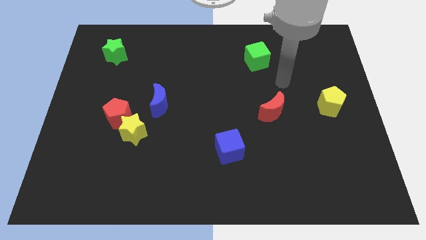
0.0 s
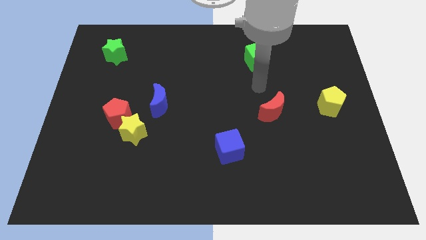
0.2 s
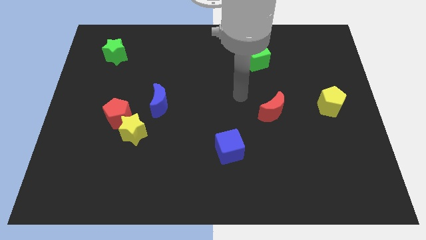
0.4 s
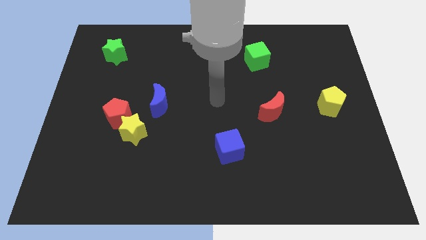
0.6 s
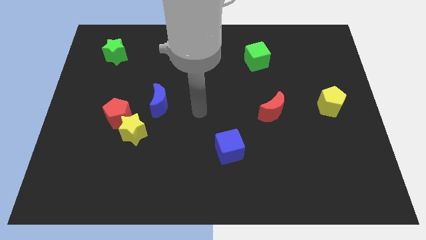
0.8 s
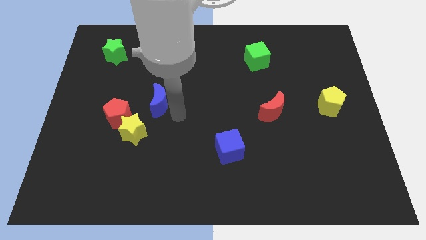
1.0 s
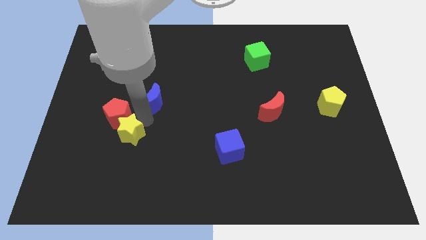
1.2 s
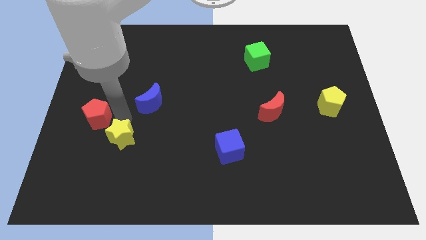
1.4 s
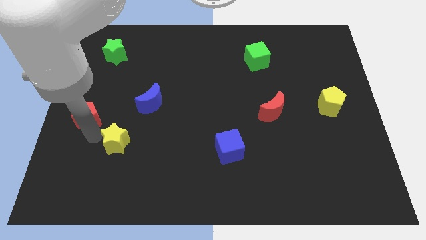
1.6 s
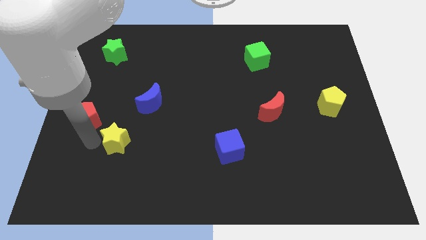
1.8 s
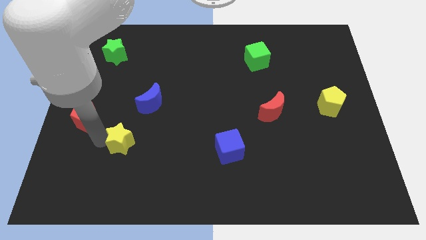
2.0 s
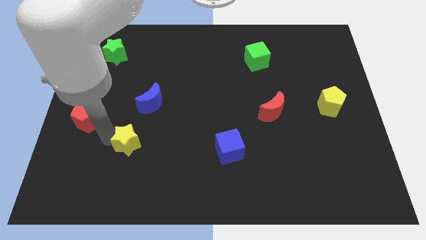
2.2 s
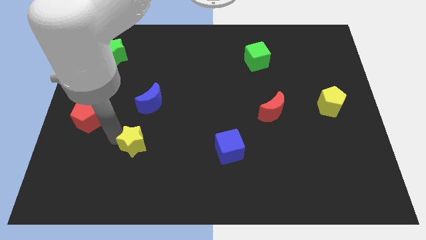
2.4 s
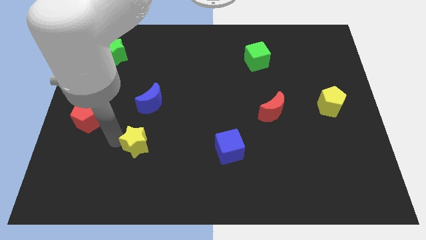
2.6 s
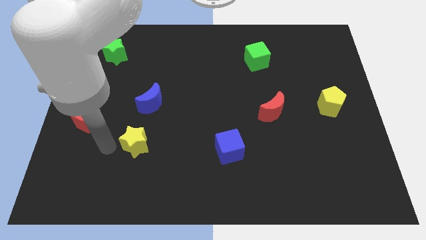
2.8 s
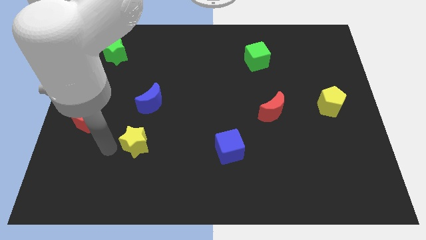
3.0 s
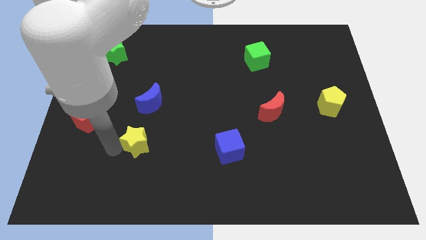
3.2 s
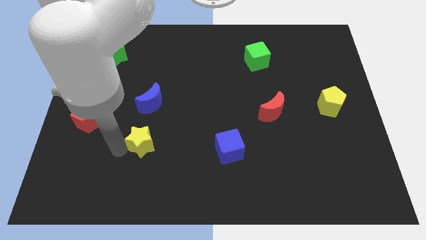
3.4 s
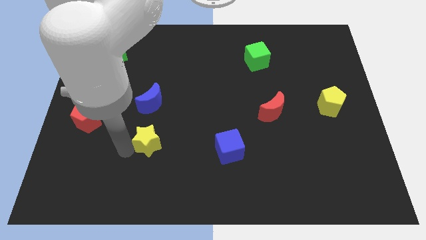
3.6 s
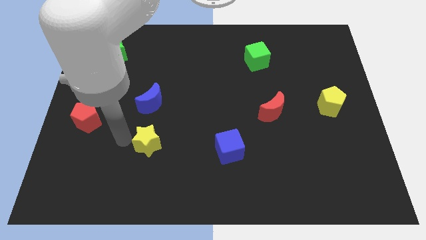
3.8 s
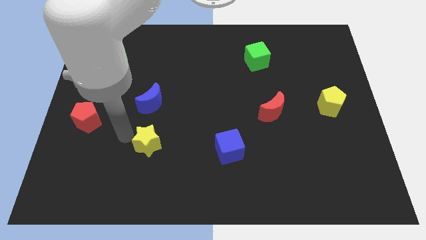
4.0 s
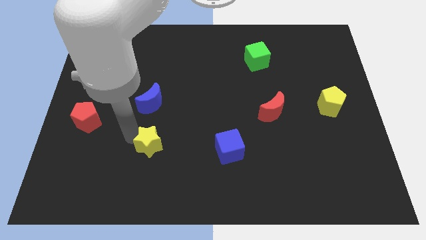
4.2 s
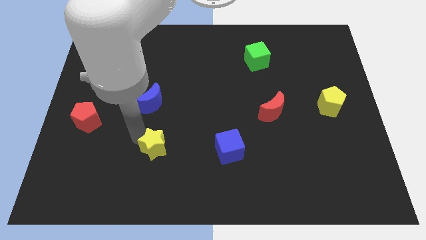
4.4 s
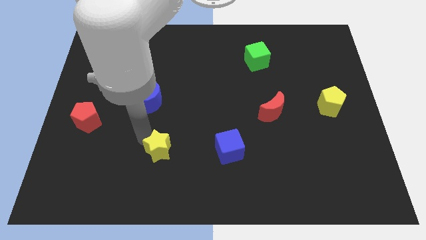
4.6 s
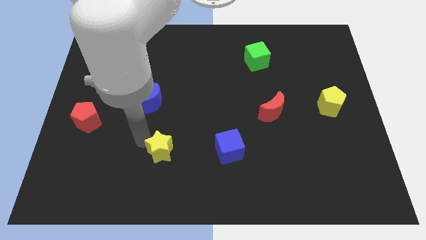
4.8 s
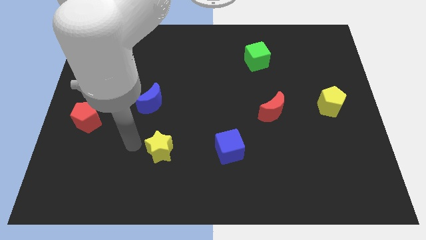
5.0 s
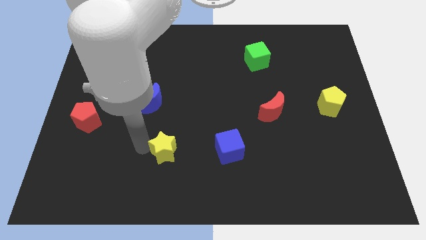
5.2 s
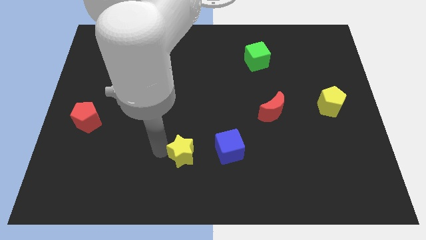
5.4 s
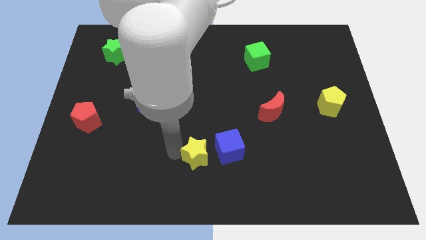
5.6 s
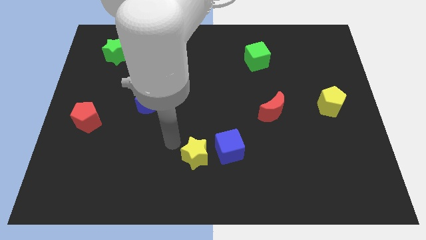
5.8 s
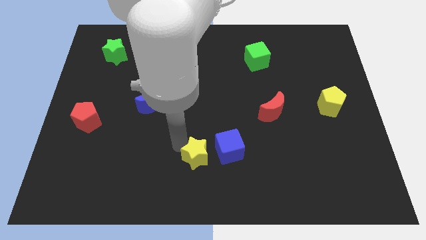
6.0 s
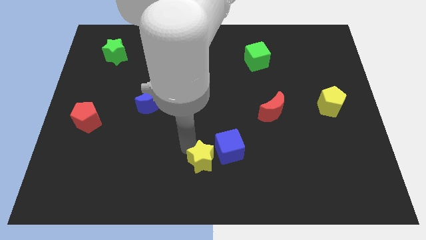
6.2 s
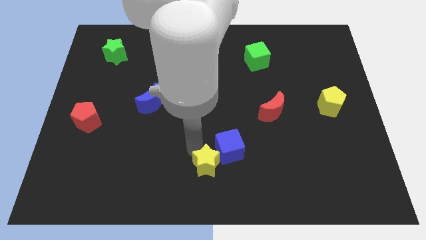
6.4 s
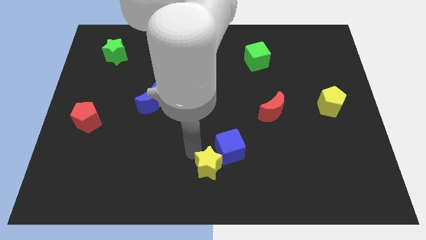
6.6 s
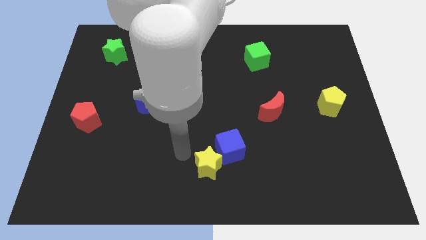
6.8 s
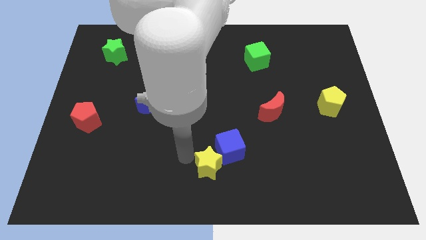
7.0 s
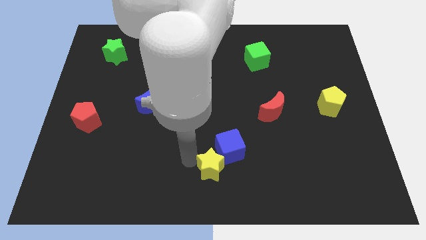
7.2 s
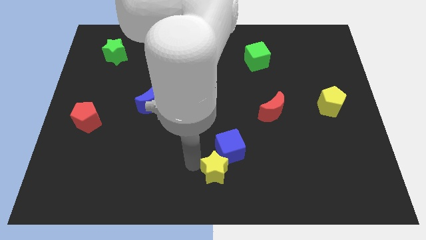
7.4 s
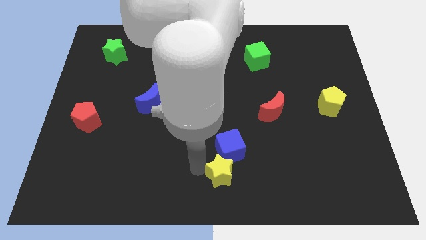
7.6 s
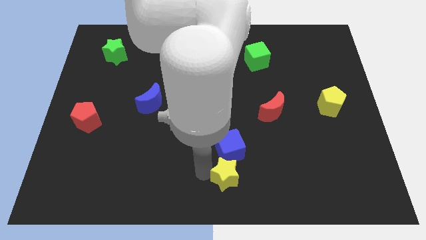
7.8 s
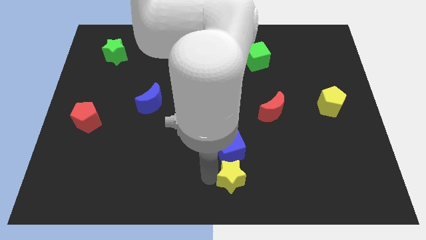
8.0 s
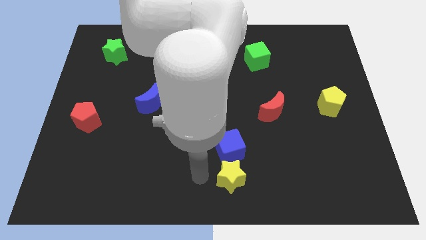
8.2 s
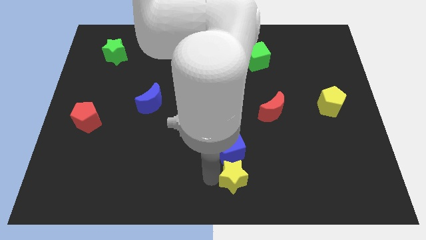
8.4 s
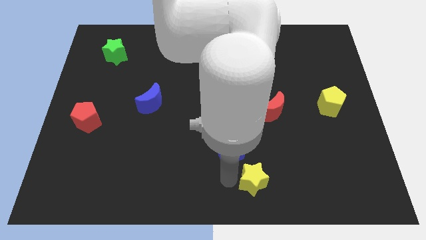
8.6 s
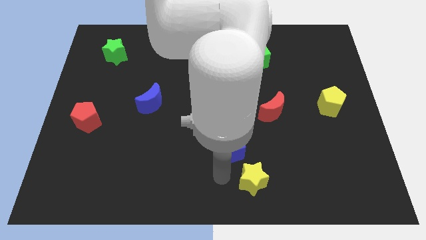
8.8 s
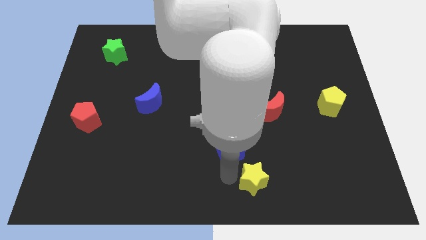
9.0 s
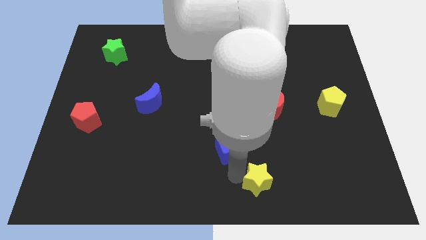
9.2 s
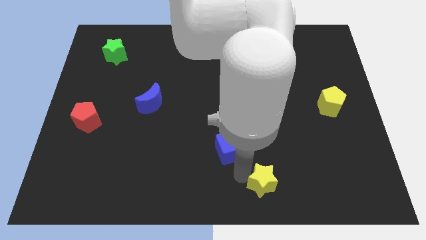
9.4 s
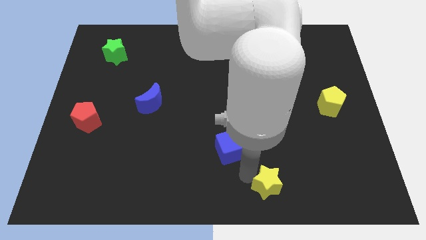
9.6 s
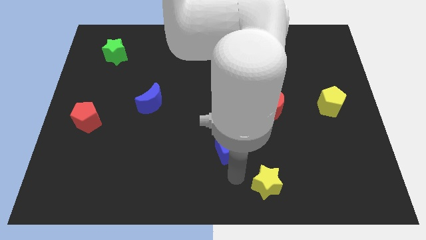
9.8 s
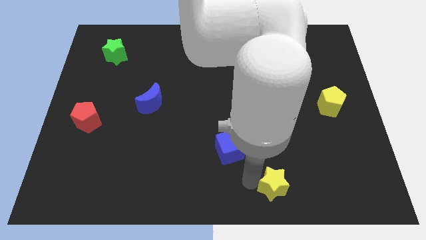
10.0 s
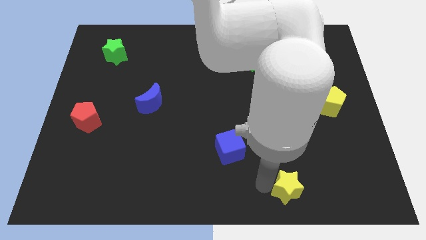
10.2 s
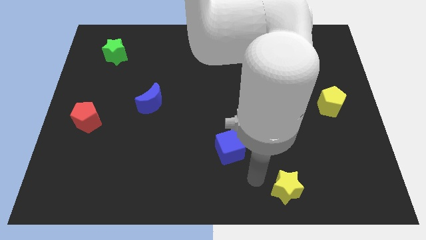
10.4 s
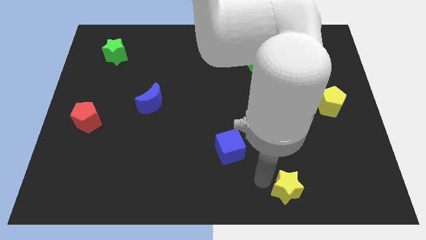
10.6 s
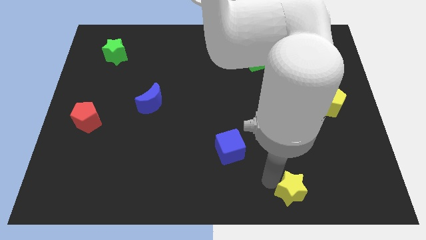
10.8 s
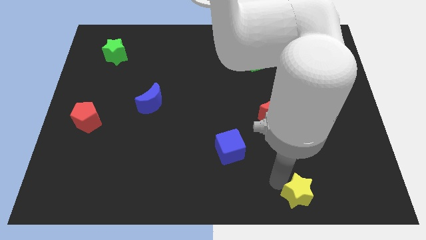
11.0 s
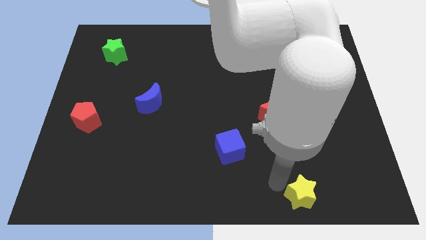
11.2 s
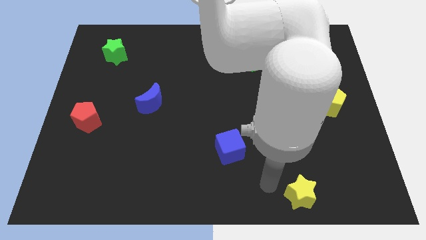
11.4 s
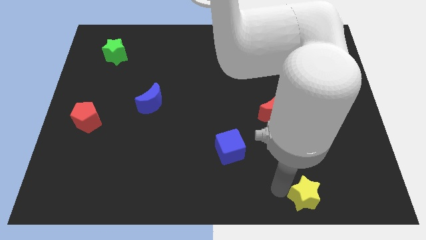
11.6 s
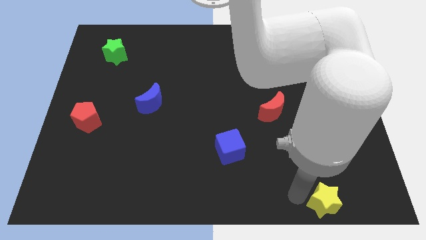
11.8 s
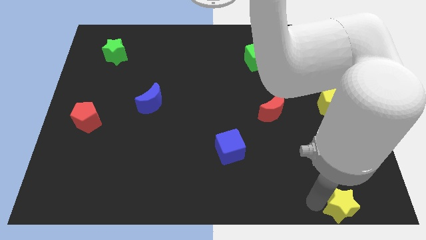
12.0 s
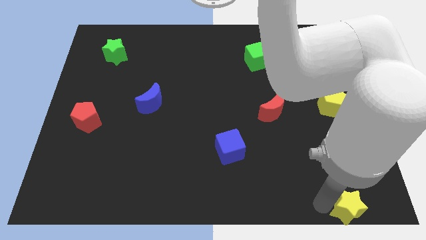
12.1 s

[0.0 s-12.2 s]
slide the yellow star to the lower right corner
